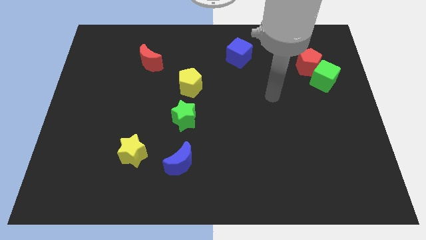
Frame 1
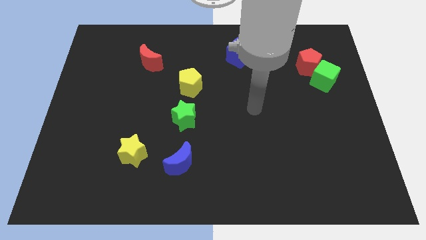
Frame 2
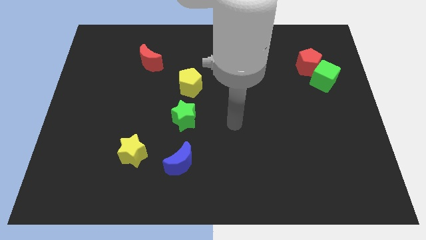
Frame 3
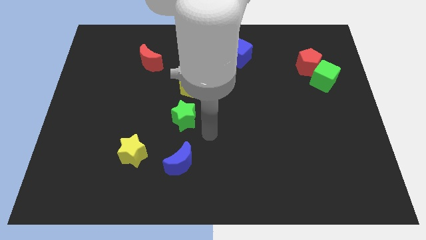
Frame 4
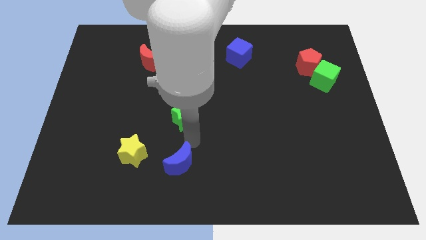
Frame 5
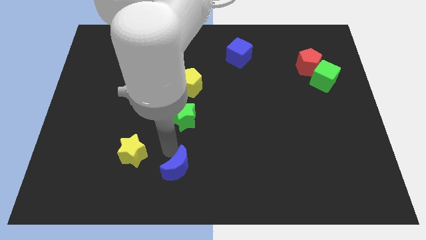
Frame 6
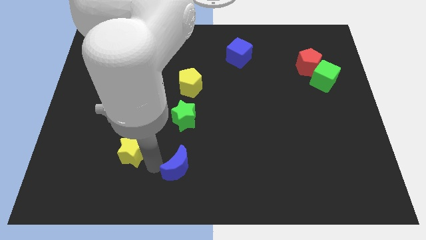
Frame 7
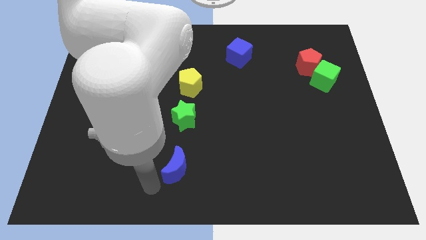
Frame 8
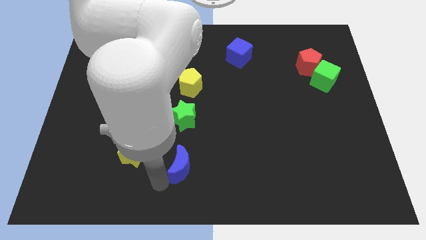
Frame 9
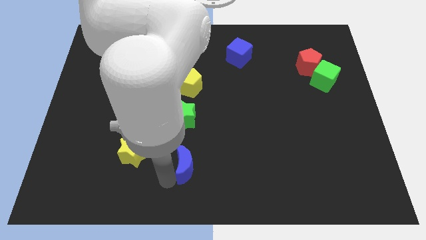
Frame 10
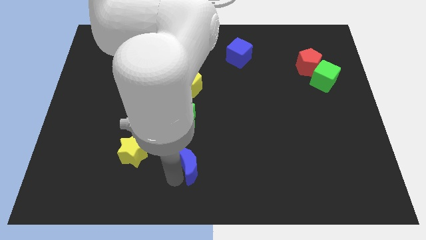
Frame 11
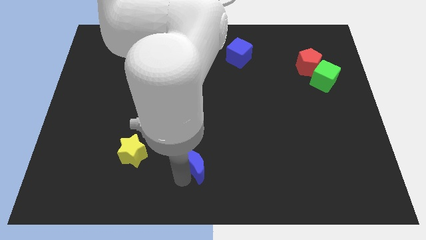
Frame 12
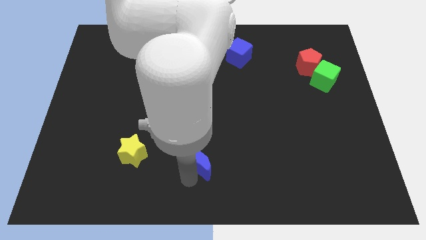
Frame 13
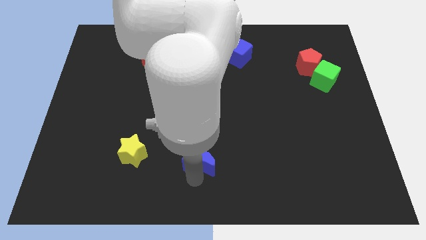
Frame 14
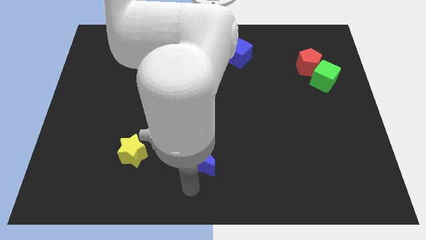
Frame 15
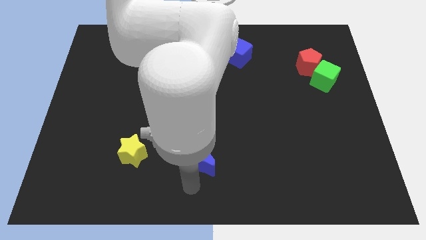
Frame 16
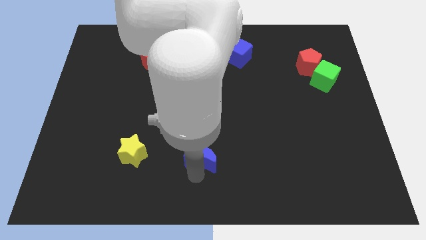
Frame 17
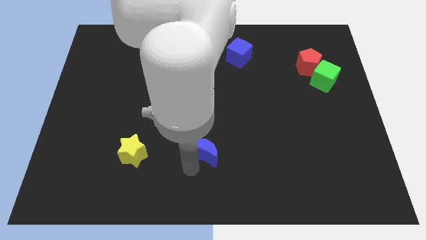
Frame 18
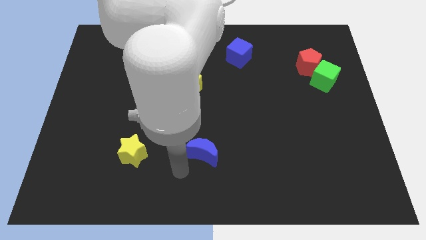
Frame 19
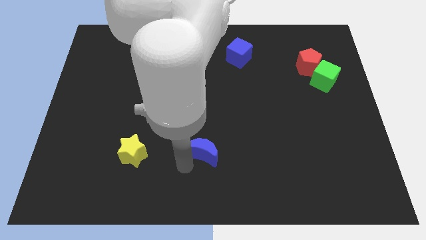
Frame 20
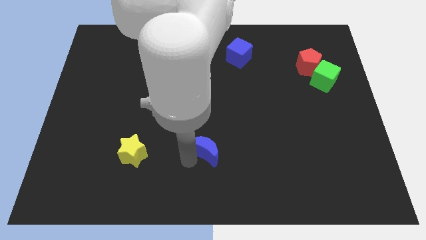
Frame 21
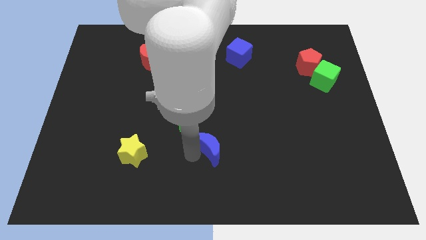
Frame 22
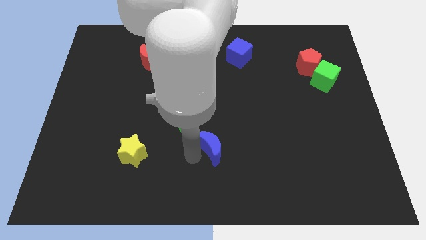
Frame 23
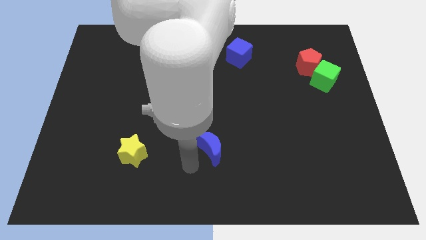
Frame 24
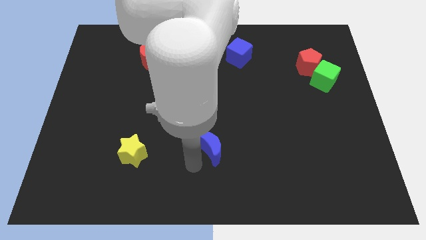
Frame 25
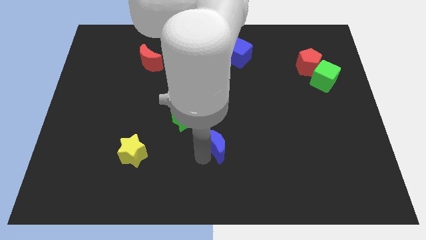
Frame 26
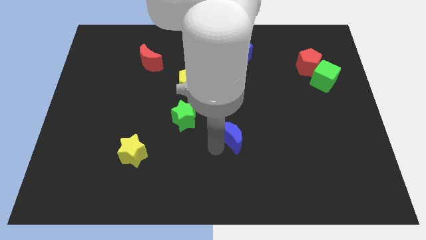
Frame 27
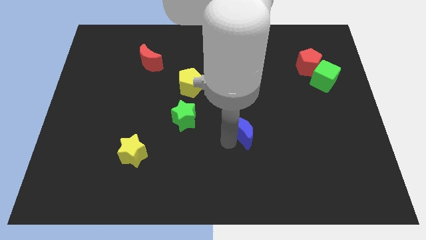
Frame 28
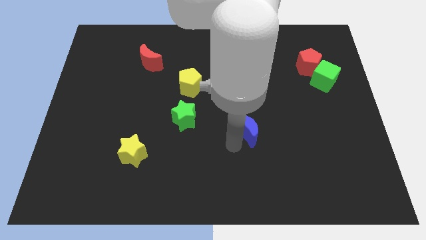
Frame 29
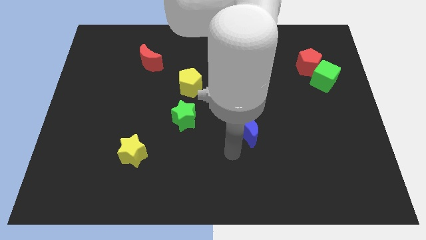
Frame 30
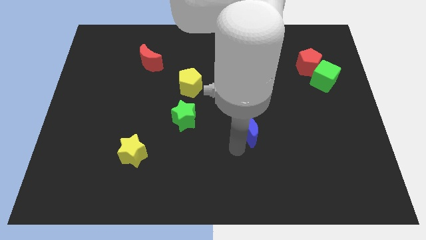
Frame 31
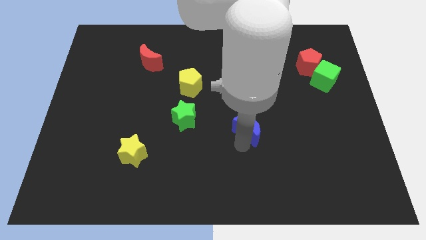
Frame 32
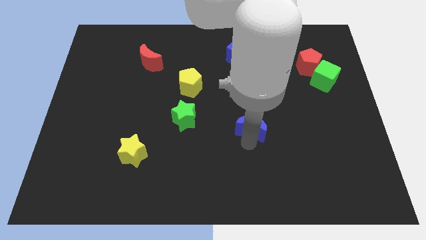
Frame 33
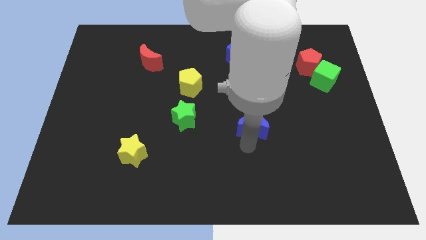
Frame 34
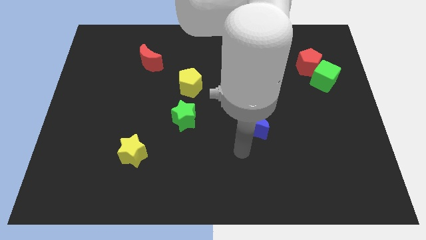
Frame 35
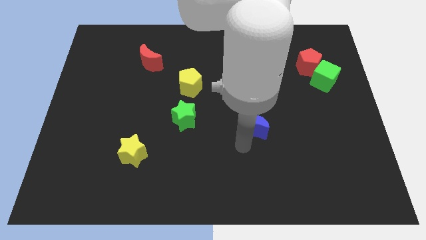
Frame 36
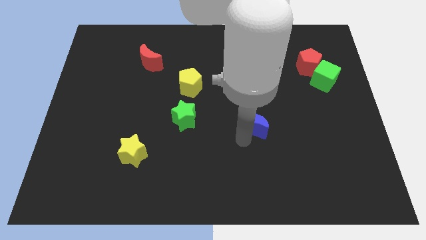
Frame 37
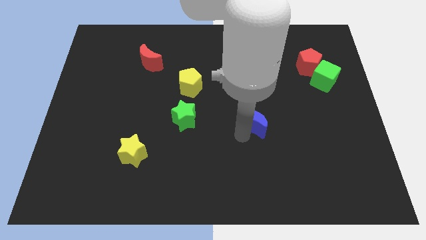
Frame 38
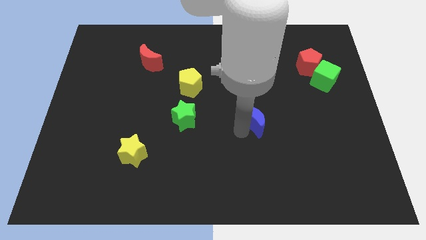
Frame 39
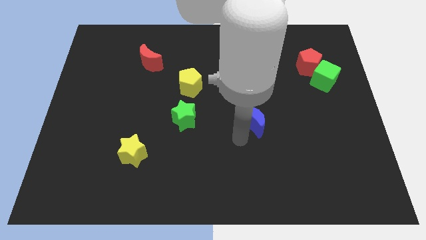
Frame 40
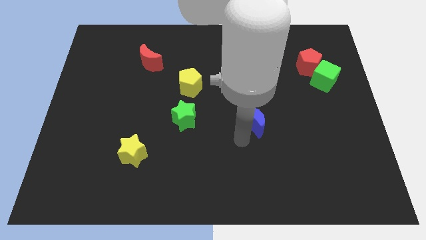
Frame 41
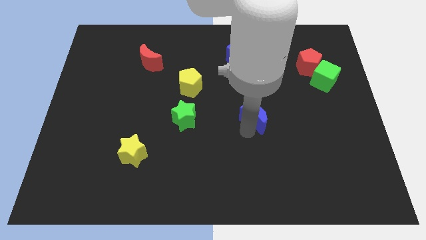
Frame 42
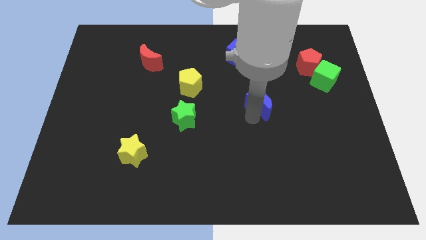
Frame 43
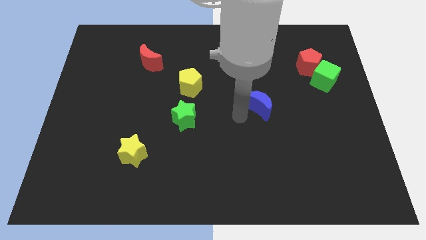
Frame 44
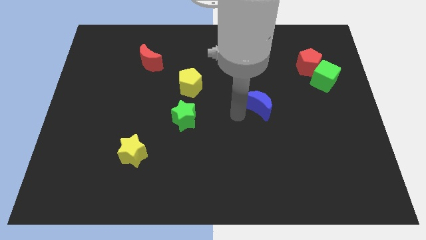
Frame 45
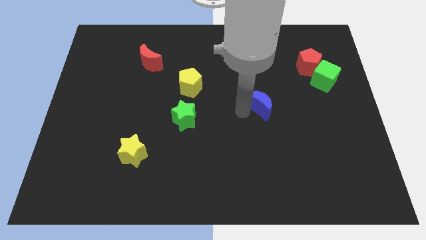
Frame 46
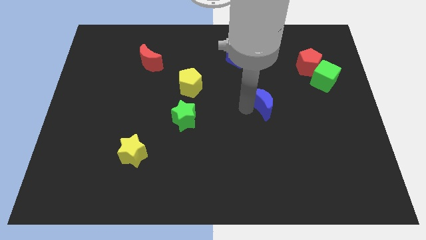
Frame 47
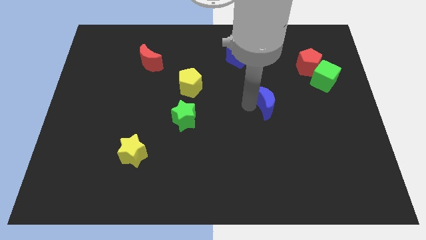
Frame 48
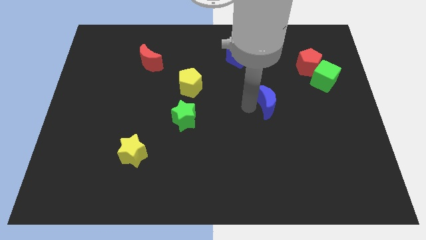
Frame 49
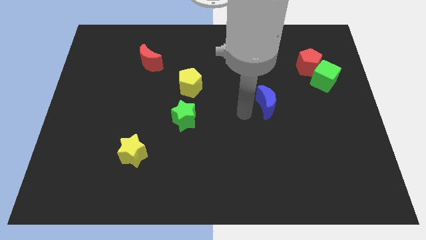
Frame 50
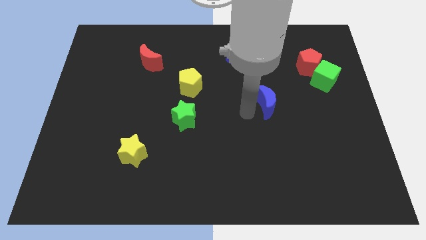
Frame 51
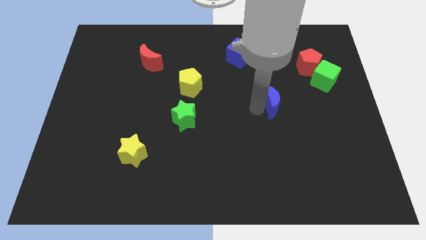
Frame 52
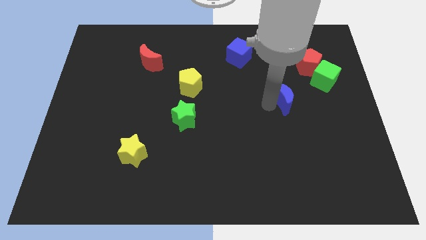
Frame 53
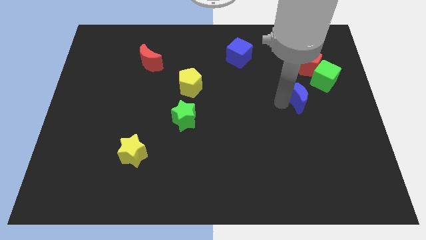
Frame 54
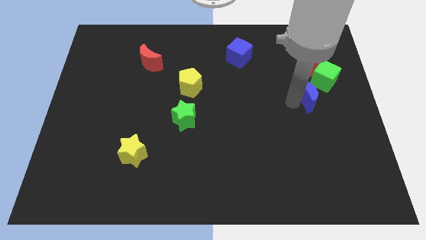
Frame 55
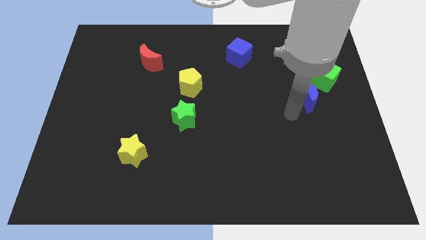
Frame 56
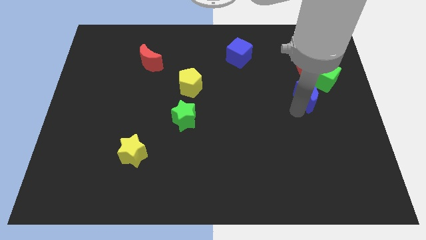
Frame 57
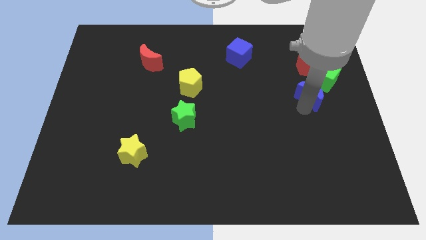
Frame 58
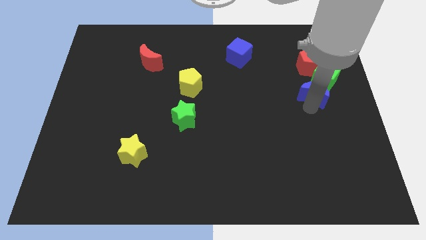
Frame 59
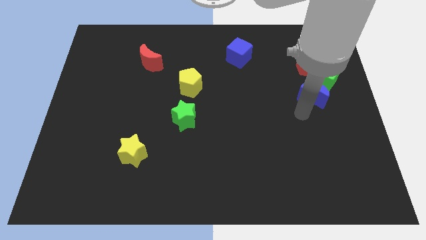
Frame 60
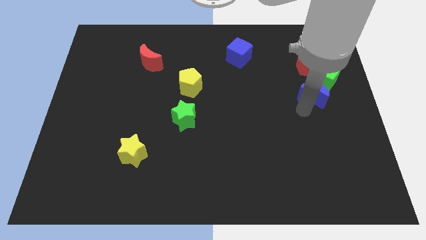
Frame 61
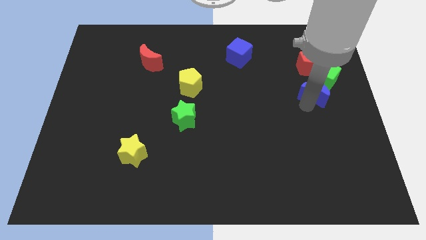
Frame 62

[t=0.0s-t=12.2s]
push the blue moon to the green cube

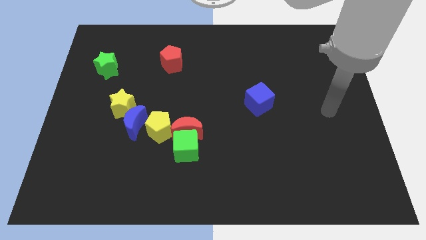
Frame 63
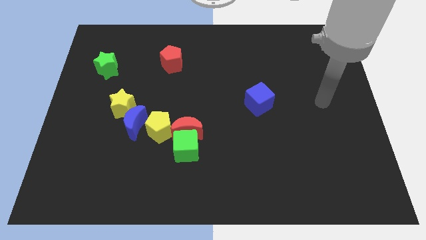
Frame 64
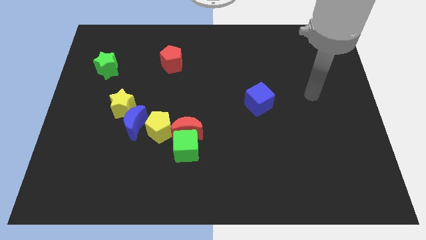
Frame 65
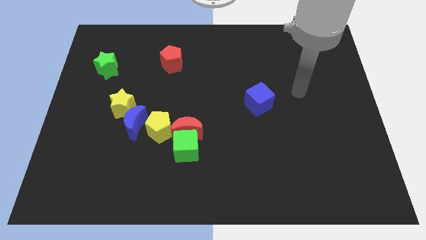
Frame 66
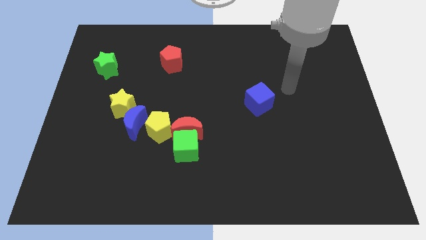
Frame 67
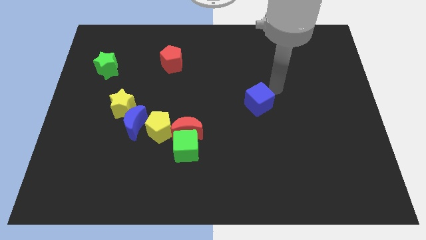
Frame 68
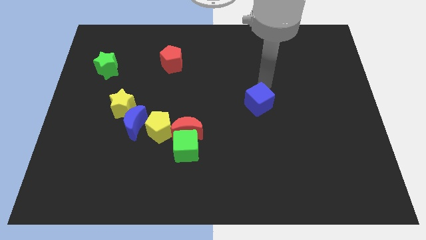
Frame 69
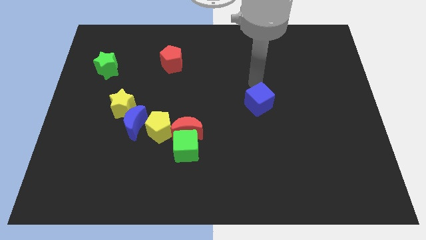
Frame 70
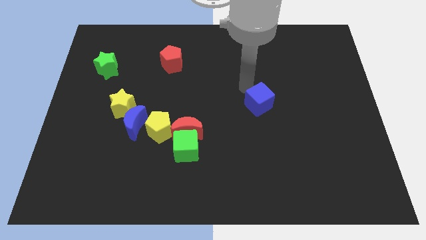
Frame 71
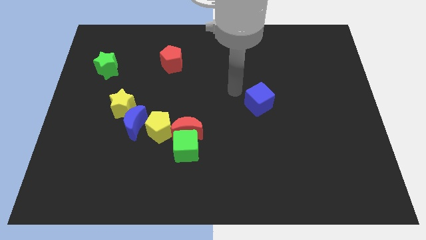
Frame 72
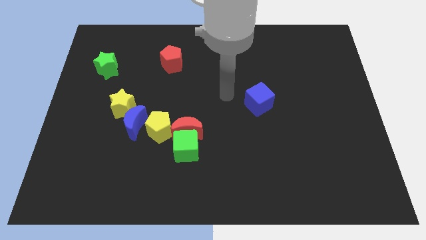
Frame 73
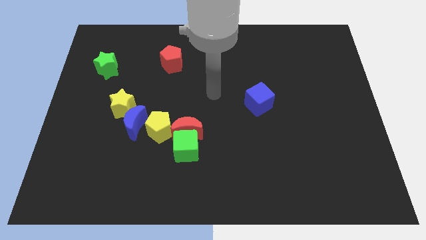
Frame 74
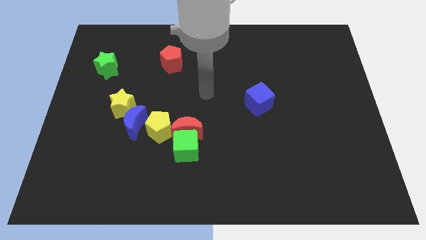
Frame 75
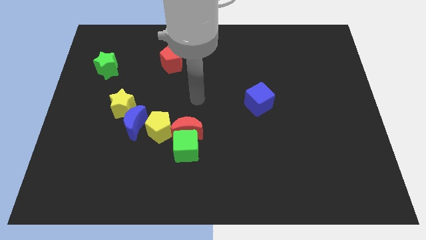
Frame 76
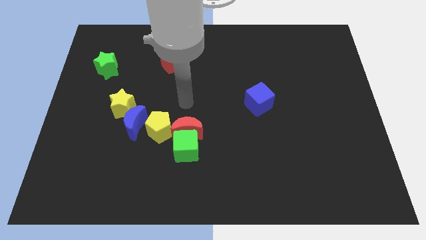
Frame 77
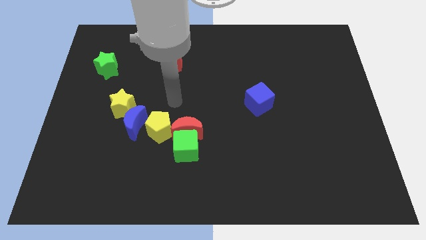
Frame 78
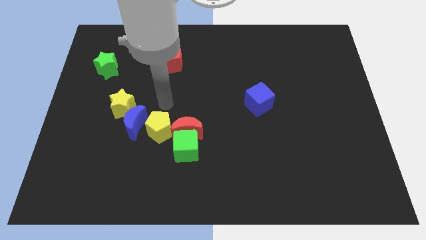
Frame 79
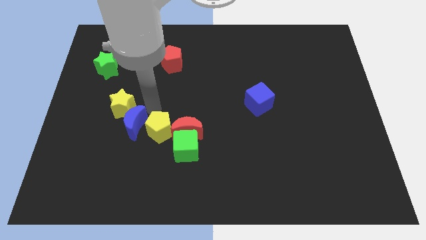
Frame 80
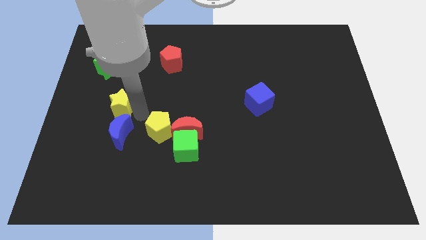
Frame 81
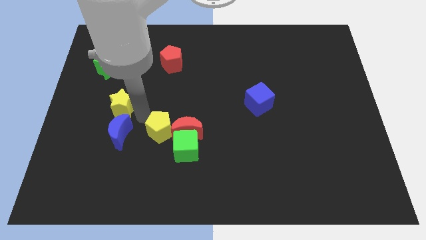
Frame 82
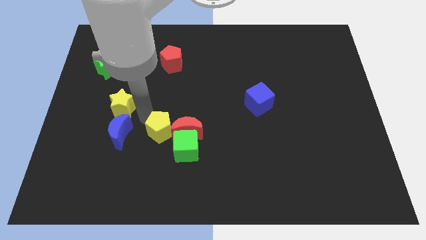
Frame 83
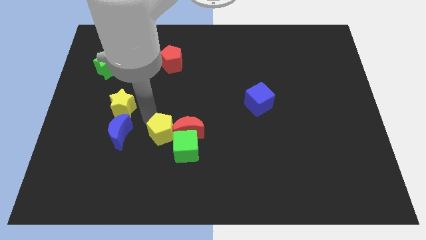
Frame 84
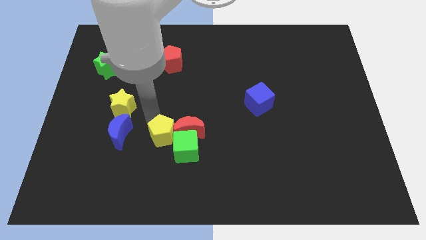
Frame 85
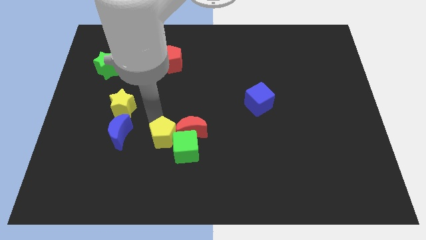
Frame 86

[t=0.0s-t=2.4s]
slide the yellow pentagon close to the green cube
